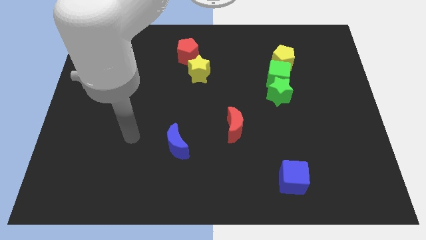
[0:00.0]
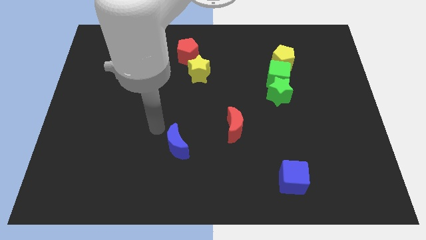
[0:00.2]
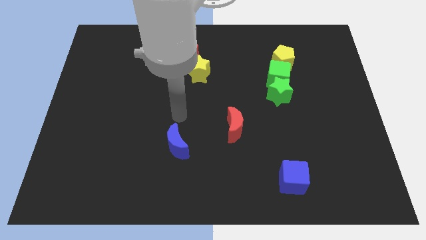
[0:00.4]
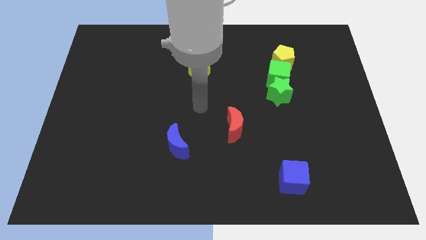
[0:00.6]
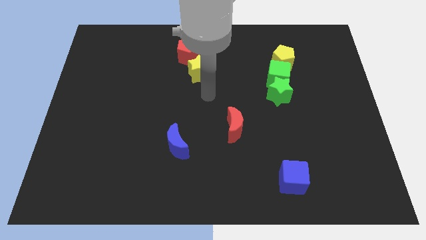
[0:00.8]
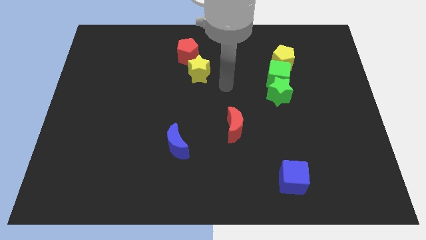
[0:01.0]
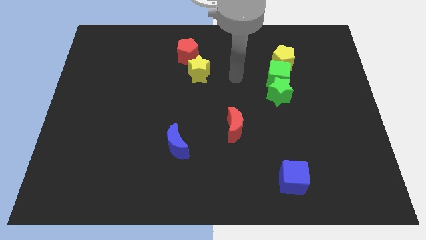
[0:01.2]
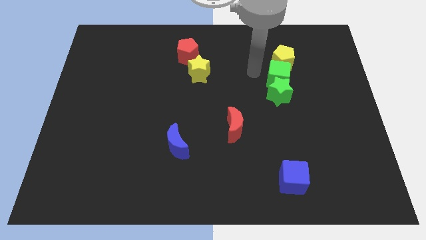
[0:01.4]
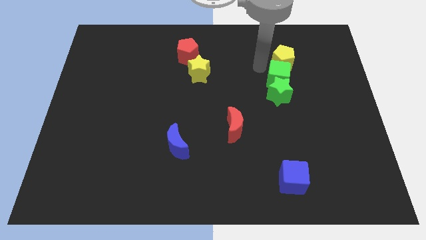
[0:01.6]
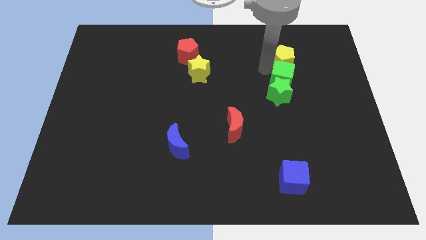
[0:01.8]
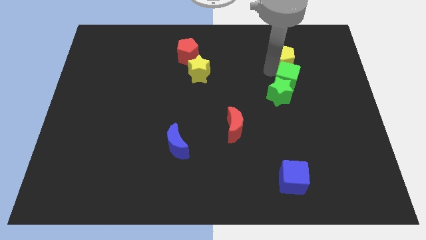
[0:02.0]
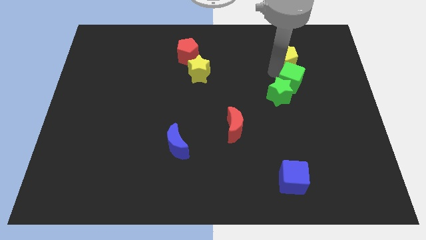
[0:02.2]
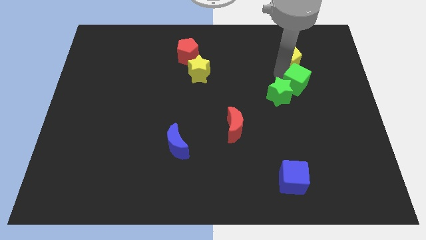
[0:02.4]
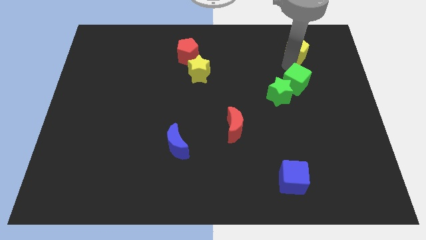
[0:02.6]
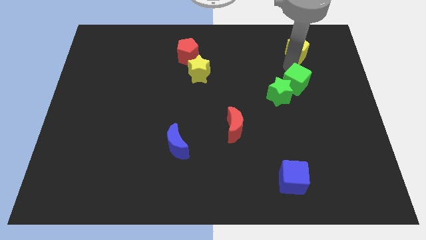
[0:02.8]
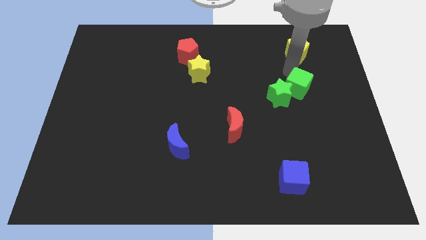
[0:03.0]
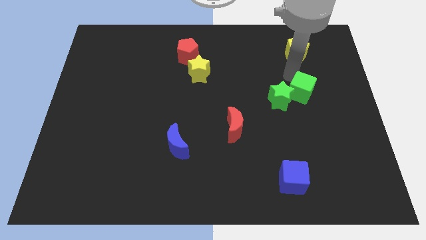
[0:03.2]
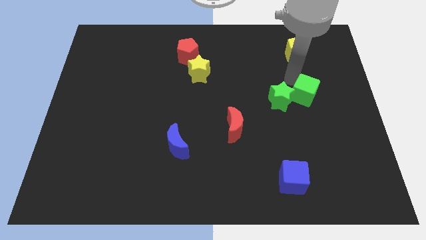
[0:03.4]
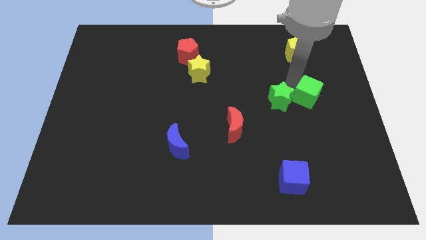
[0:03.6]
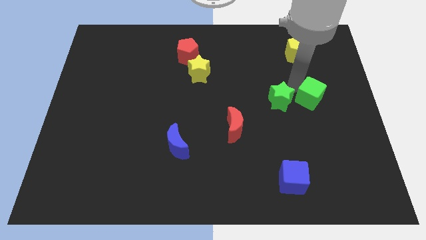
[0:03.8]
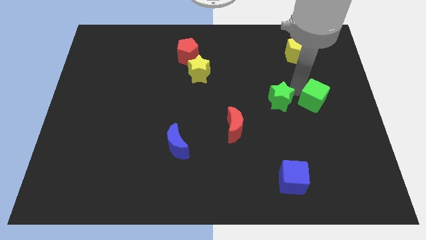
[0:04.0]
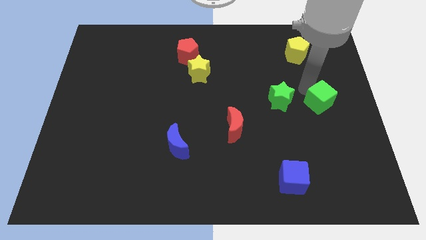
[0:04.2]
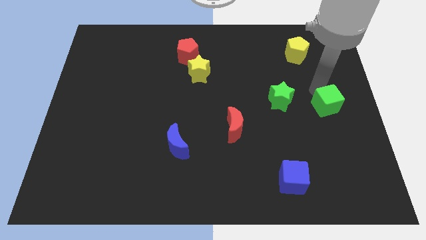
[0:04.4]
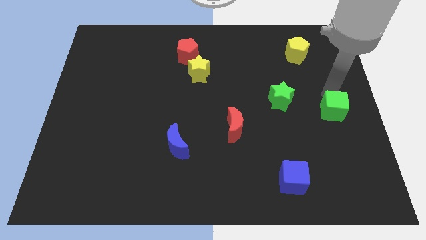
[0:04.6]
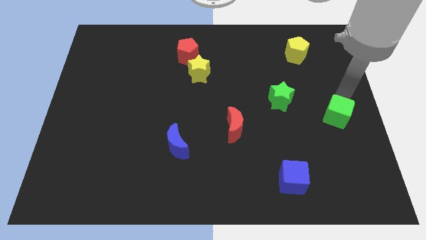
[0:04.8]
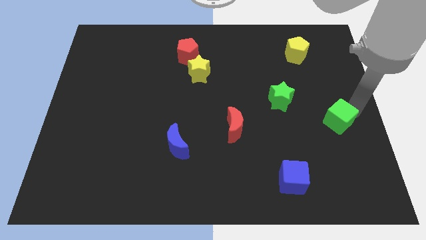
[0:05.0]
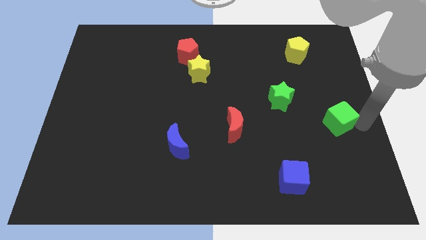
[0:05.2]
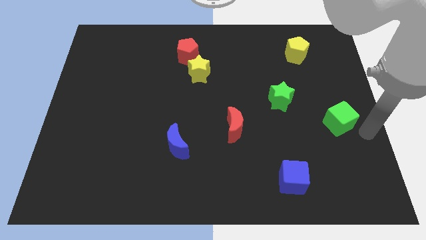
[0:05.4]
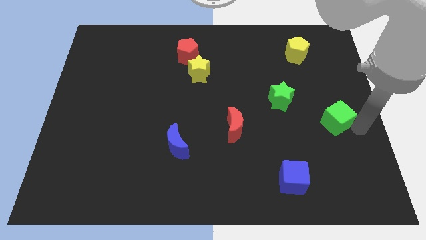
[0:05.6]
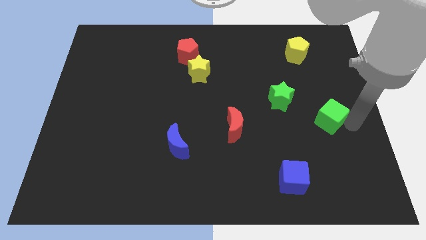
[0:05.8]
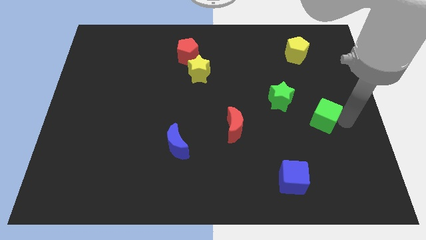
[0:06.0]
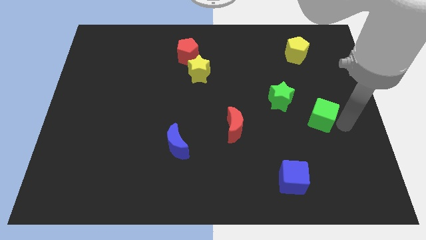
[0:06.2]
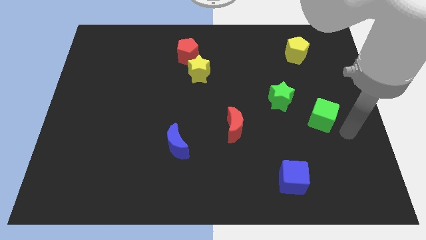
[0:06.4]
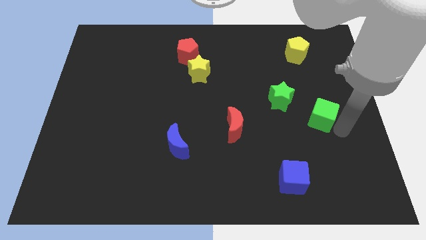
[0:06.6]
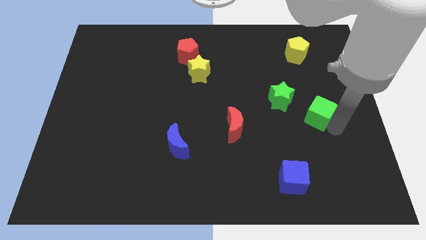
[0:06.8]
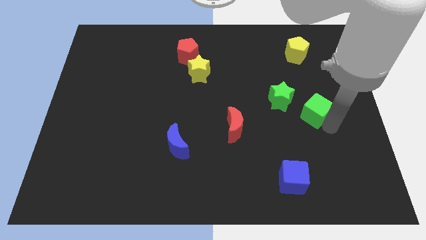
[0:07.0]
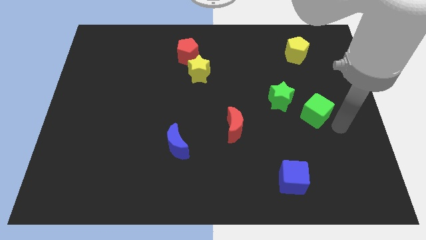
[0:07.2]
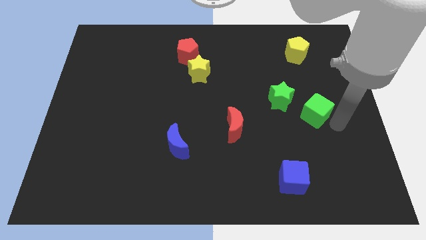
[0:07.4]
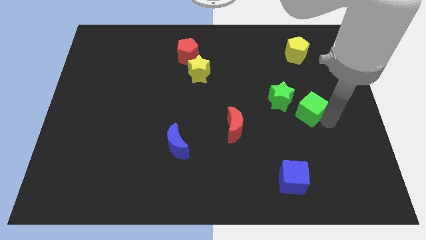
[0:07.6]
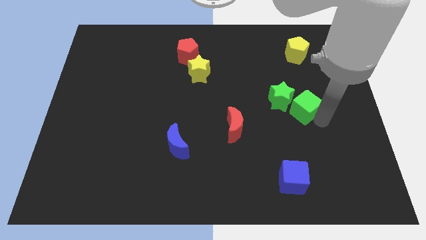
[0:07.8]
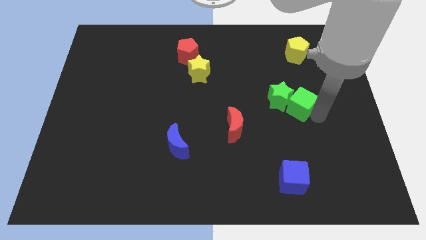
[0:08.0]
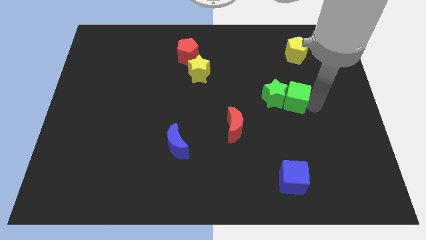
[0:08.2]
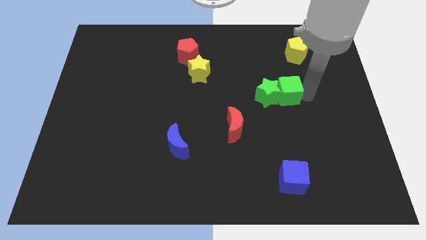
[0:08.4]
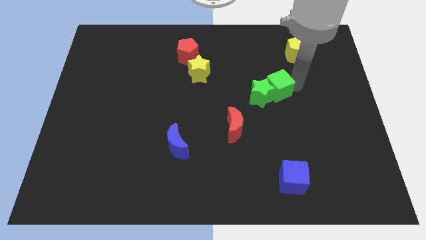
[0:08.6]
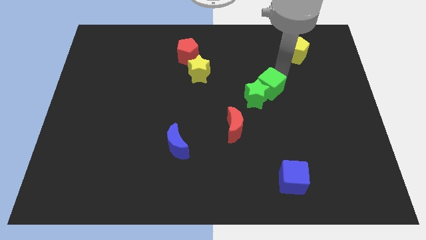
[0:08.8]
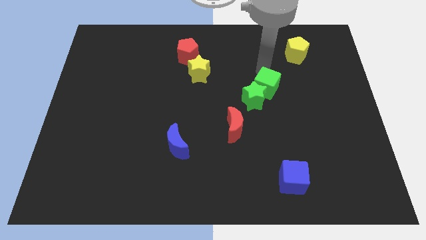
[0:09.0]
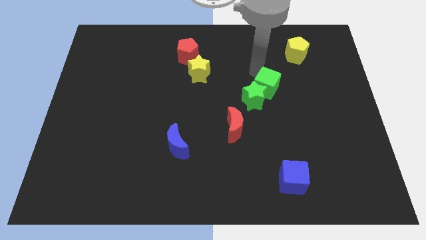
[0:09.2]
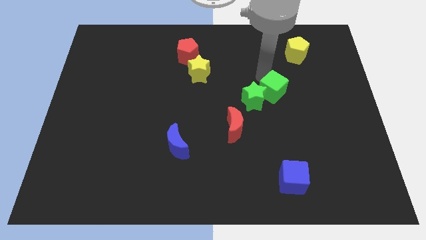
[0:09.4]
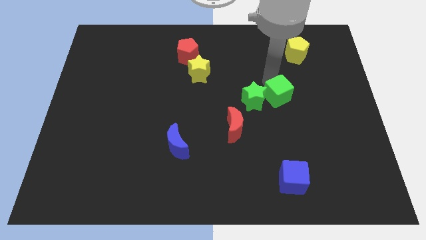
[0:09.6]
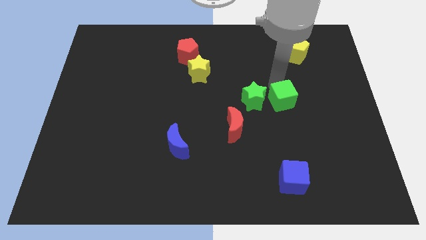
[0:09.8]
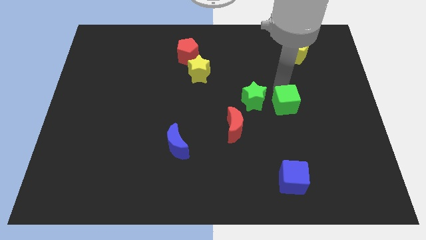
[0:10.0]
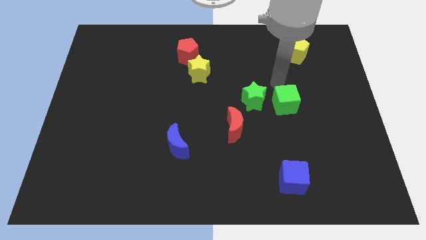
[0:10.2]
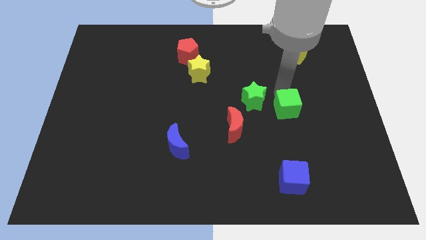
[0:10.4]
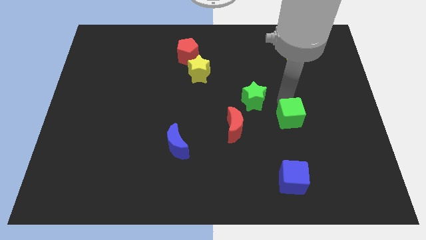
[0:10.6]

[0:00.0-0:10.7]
slide the green cube to the top of the blue cube

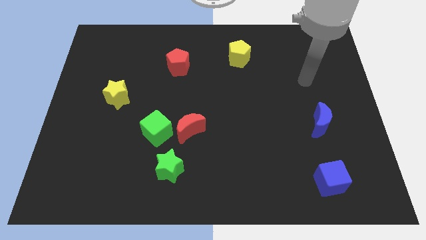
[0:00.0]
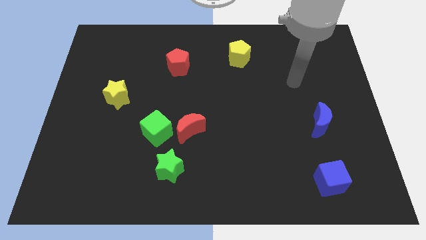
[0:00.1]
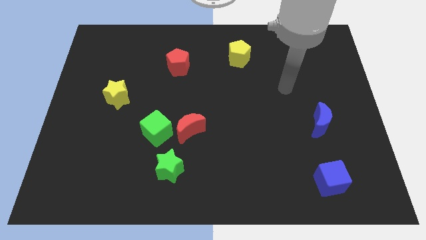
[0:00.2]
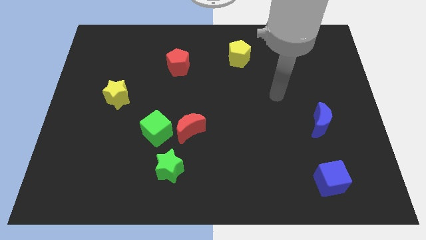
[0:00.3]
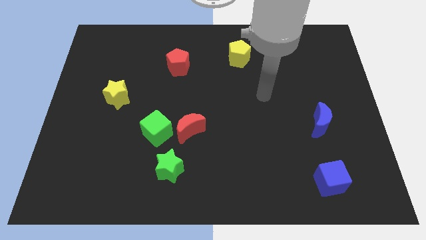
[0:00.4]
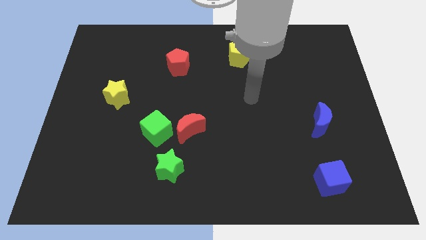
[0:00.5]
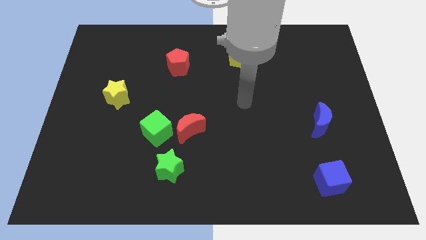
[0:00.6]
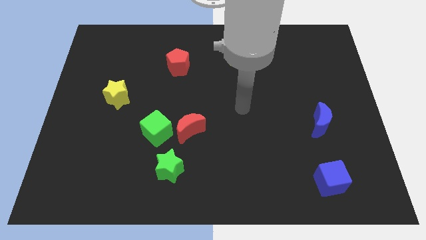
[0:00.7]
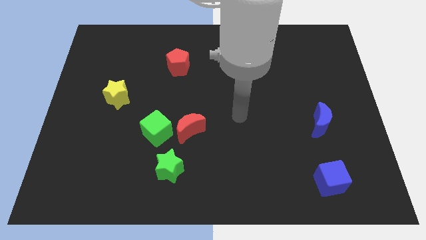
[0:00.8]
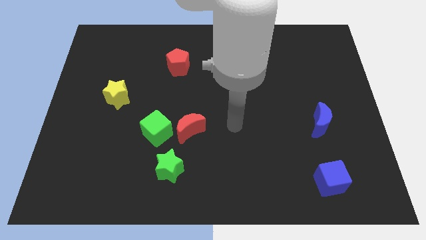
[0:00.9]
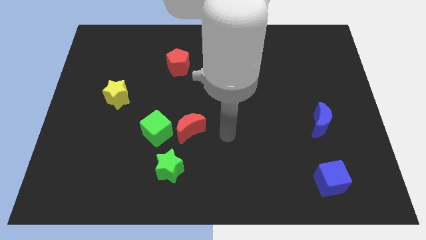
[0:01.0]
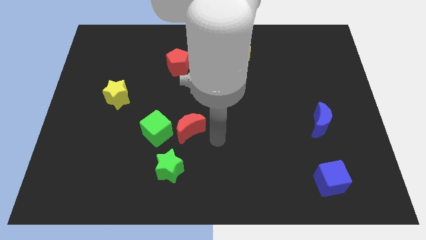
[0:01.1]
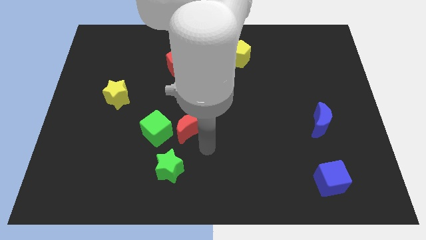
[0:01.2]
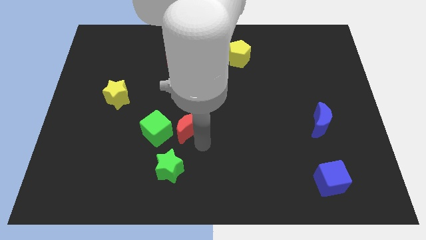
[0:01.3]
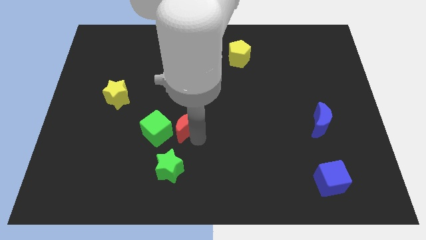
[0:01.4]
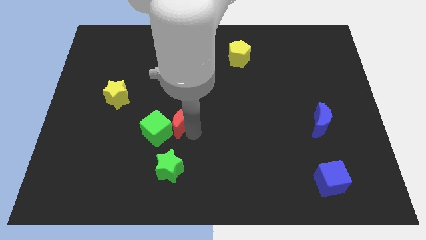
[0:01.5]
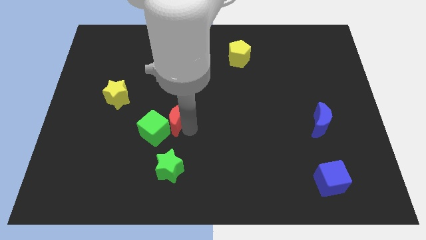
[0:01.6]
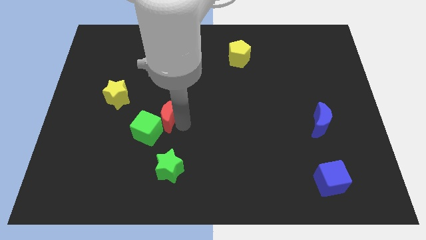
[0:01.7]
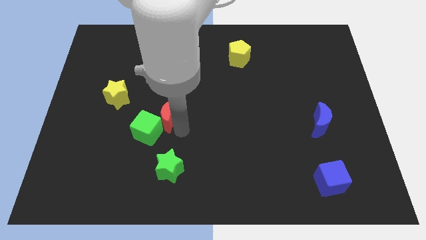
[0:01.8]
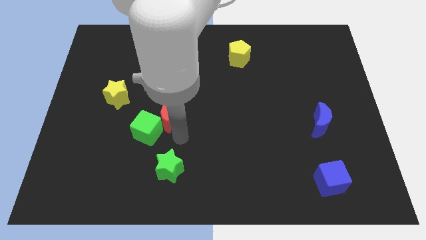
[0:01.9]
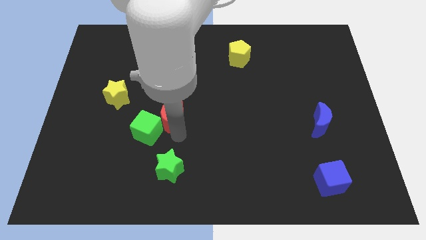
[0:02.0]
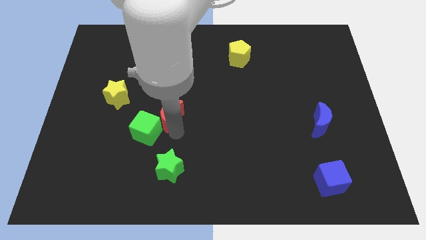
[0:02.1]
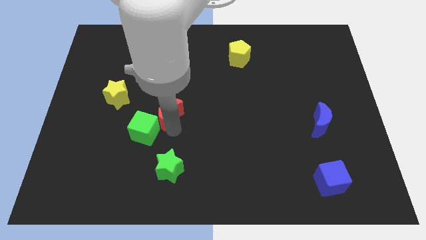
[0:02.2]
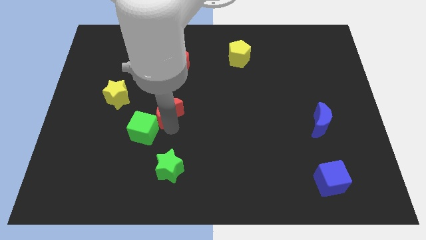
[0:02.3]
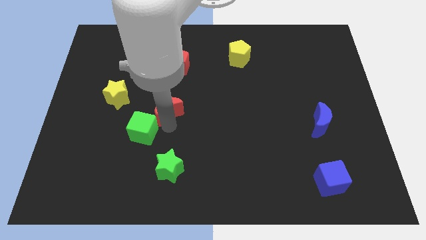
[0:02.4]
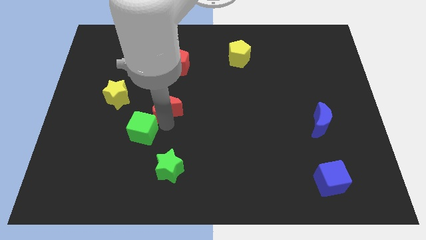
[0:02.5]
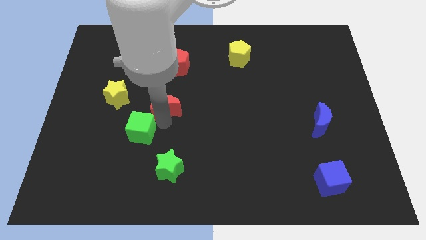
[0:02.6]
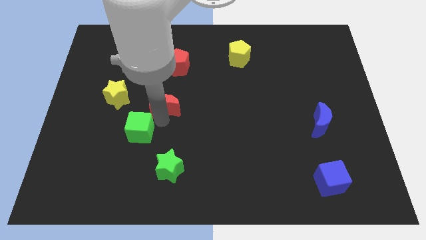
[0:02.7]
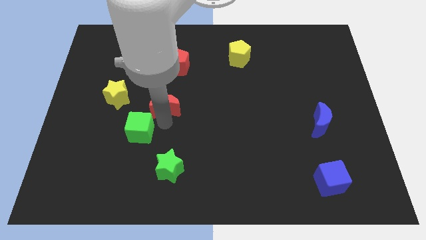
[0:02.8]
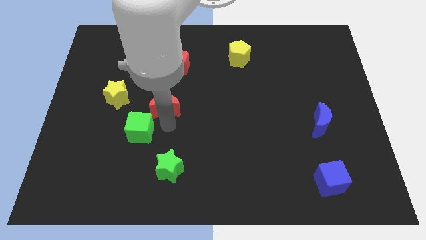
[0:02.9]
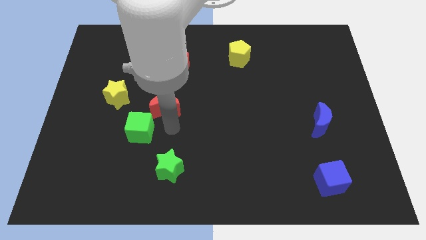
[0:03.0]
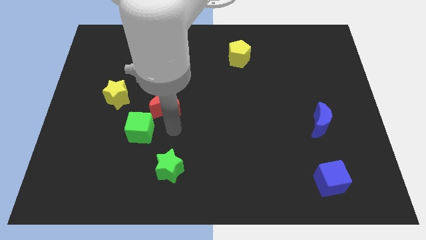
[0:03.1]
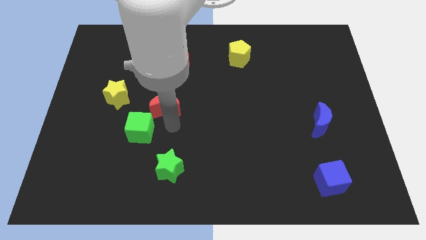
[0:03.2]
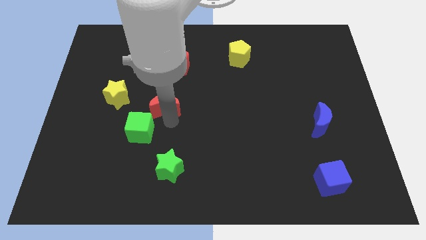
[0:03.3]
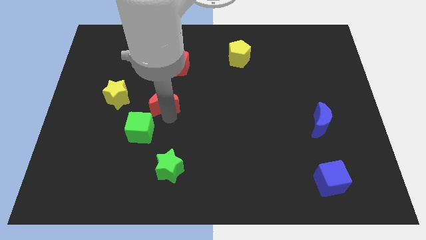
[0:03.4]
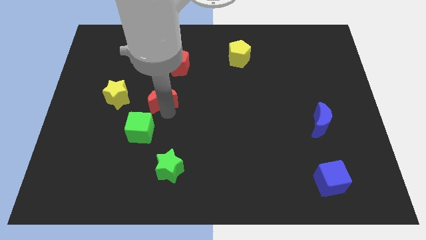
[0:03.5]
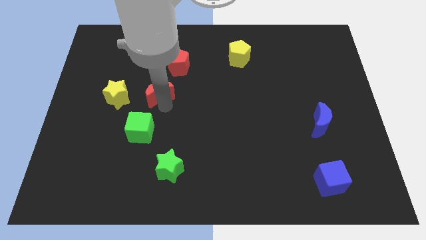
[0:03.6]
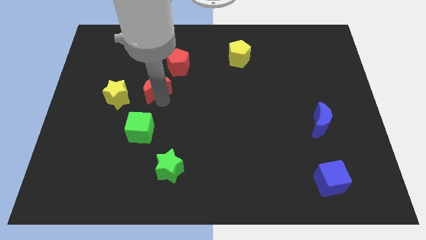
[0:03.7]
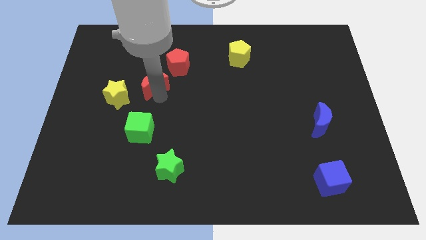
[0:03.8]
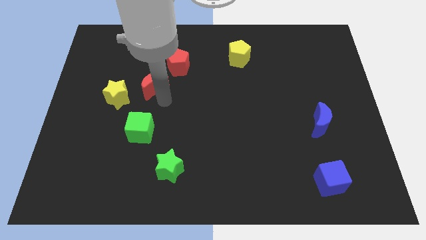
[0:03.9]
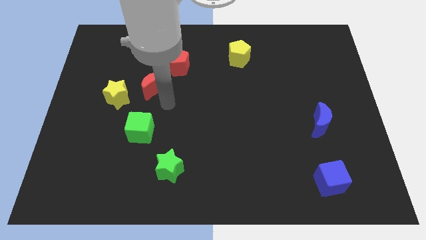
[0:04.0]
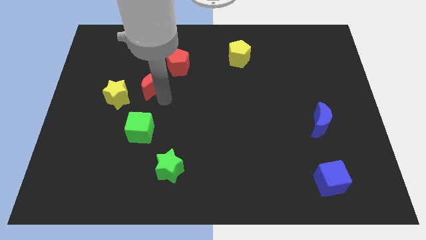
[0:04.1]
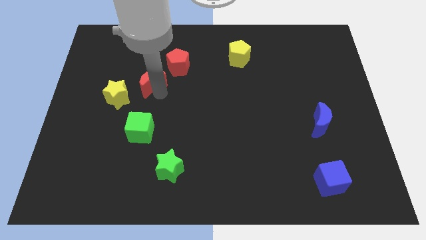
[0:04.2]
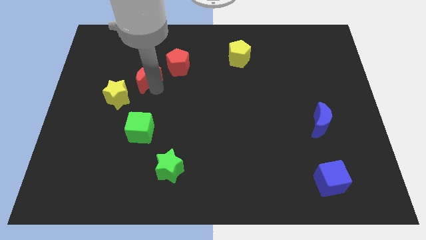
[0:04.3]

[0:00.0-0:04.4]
move the red moon left of the red pentagon
